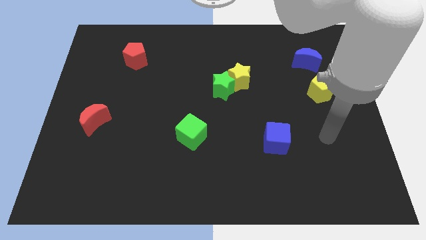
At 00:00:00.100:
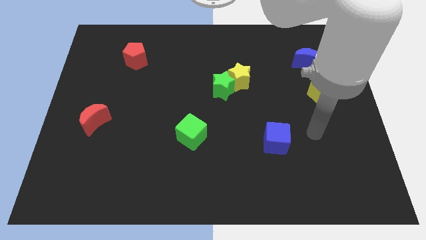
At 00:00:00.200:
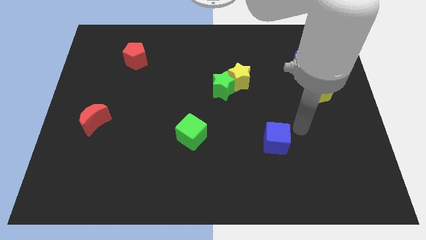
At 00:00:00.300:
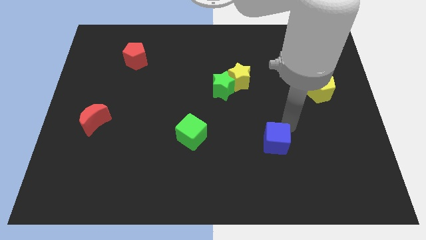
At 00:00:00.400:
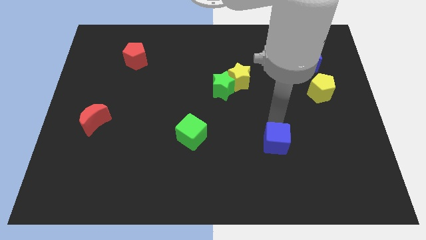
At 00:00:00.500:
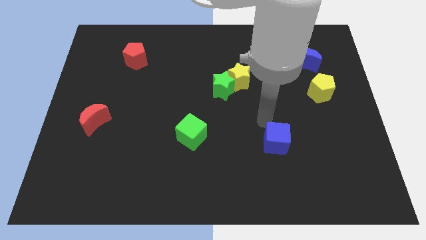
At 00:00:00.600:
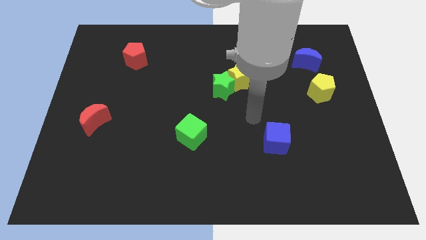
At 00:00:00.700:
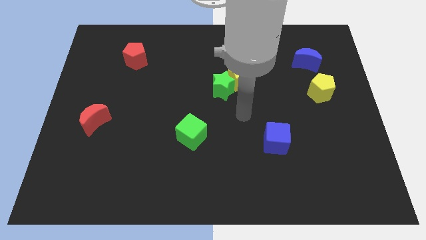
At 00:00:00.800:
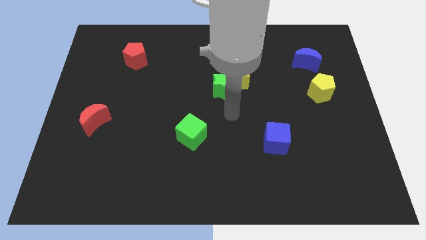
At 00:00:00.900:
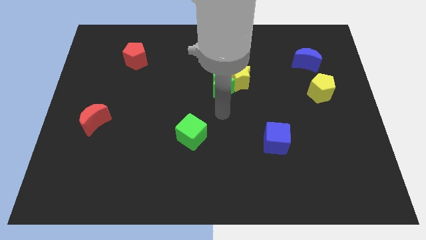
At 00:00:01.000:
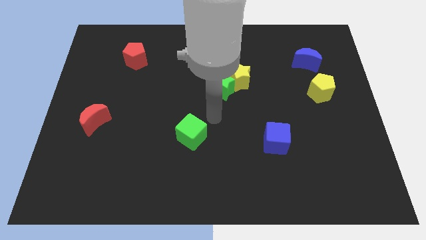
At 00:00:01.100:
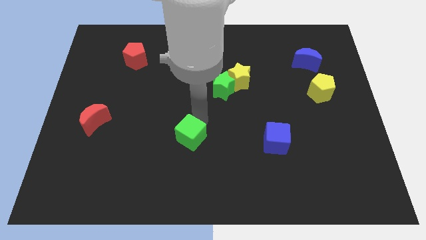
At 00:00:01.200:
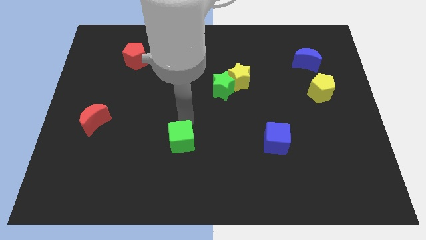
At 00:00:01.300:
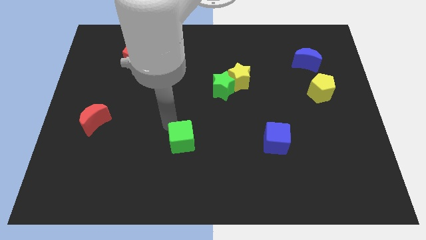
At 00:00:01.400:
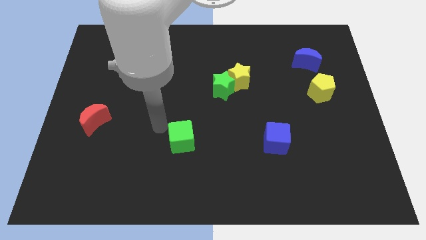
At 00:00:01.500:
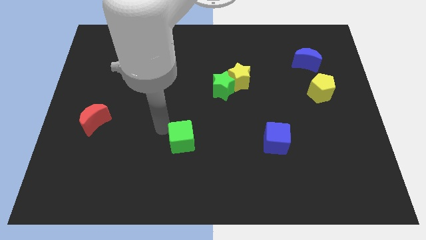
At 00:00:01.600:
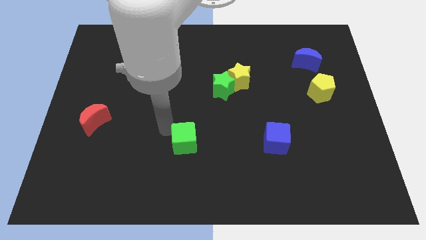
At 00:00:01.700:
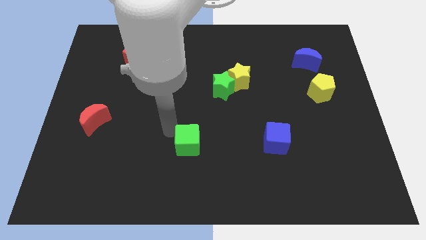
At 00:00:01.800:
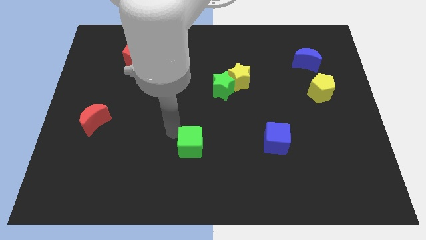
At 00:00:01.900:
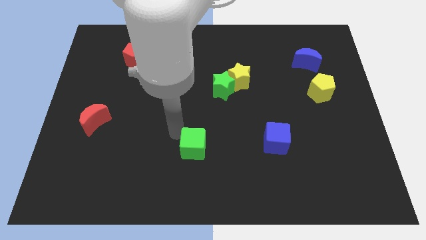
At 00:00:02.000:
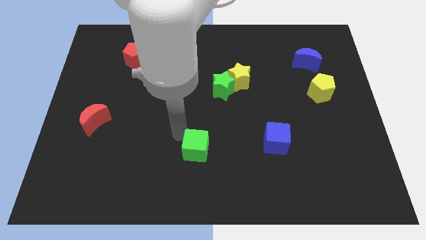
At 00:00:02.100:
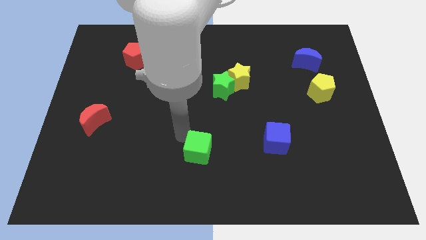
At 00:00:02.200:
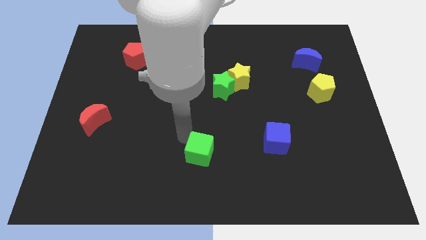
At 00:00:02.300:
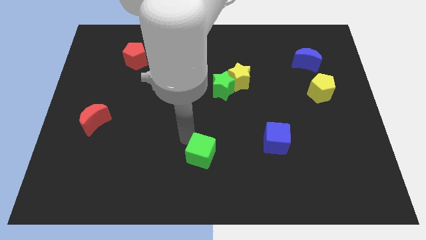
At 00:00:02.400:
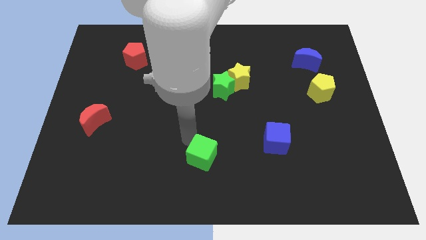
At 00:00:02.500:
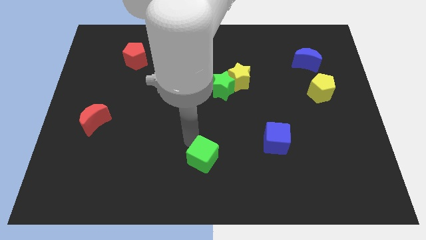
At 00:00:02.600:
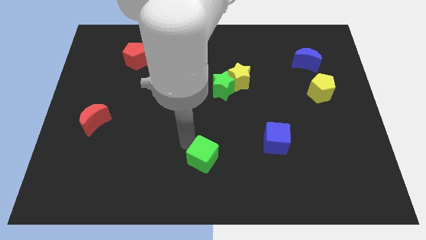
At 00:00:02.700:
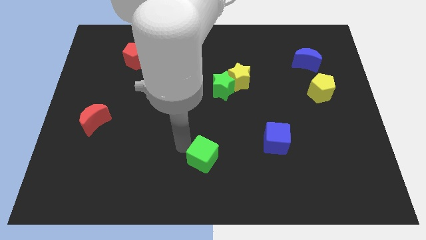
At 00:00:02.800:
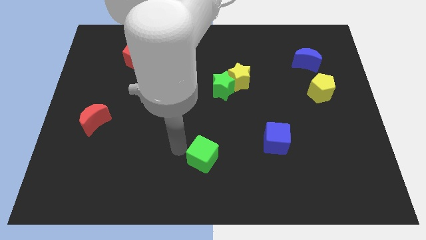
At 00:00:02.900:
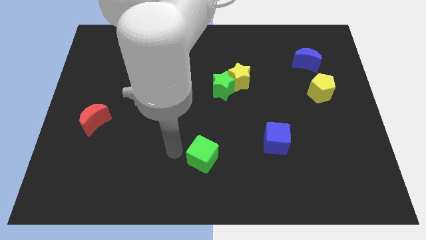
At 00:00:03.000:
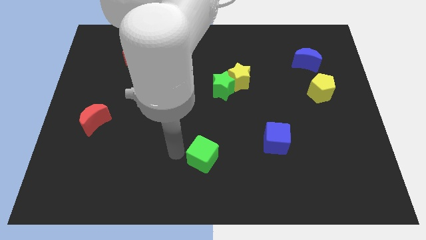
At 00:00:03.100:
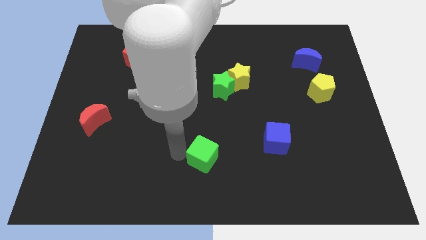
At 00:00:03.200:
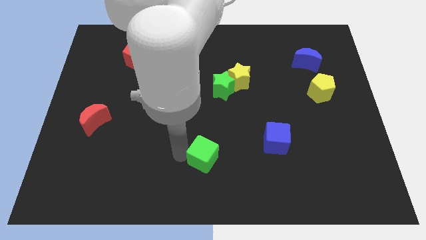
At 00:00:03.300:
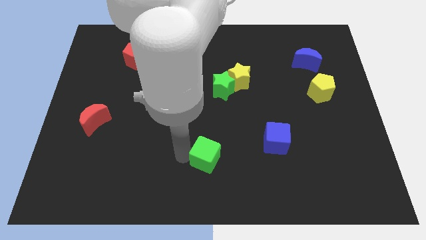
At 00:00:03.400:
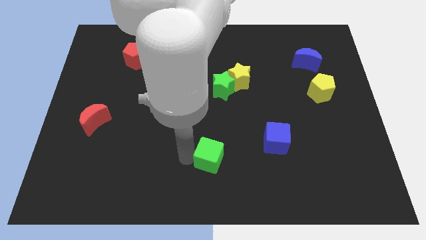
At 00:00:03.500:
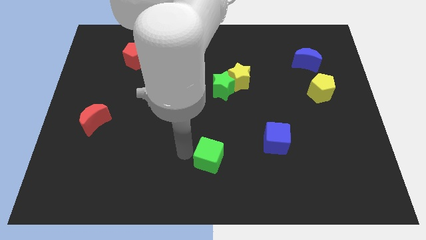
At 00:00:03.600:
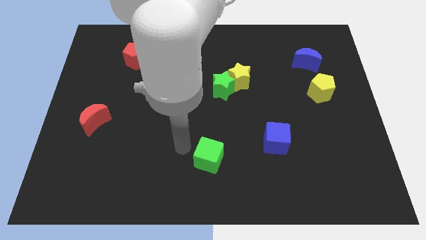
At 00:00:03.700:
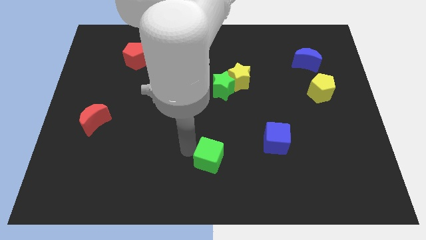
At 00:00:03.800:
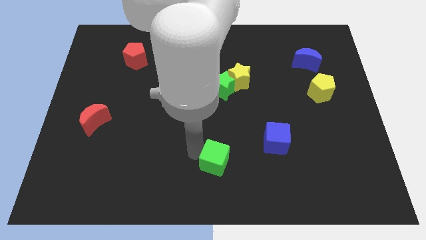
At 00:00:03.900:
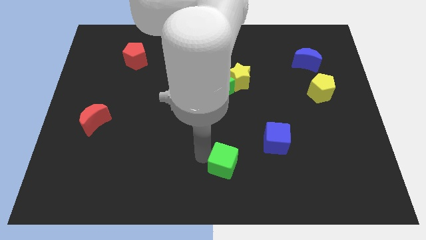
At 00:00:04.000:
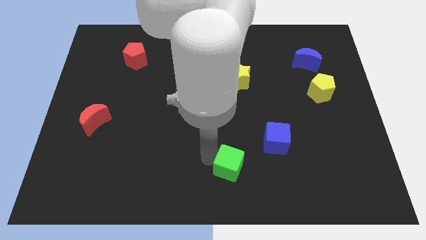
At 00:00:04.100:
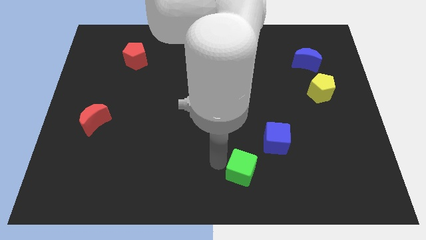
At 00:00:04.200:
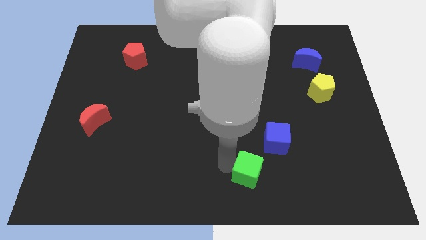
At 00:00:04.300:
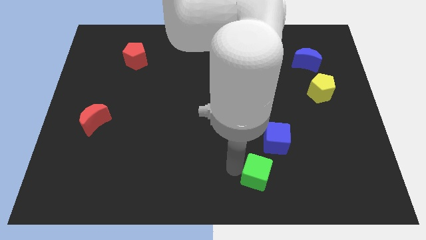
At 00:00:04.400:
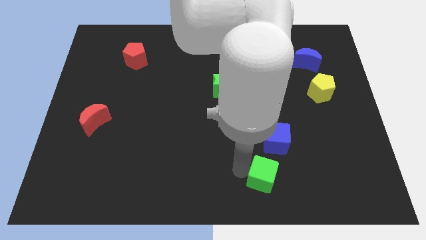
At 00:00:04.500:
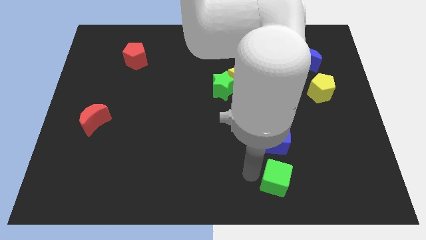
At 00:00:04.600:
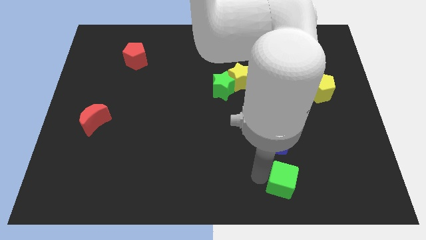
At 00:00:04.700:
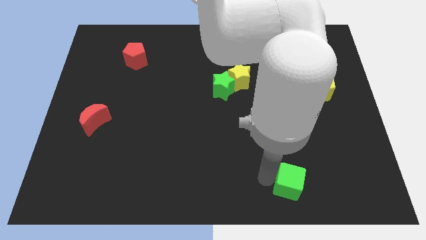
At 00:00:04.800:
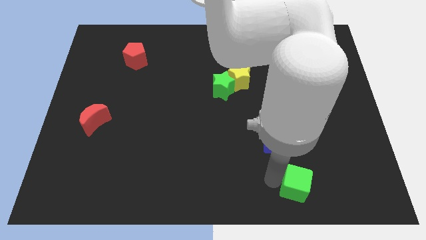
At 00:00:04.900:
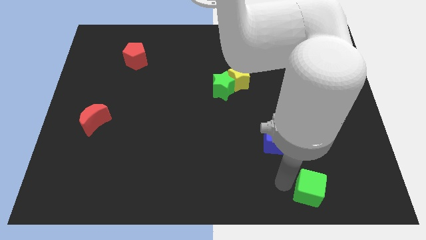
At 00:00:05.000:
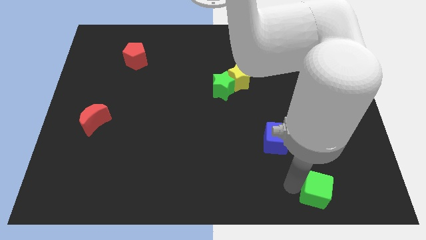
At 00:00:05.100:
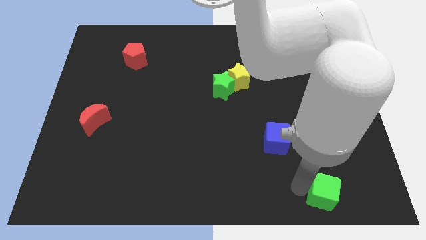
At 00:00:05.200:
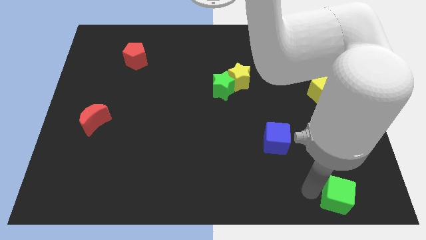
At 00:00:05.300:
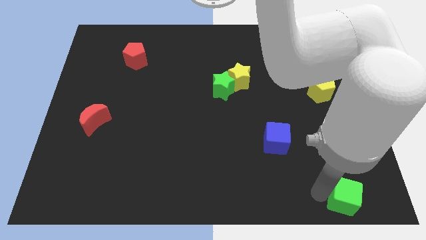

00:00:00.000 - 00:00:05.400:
slide the green cube to the bottom right corner

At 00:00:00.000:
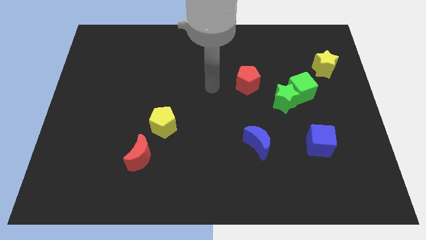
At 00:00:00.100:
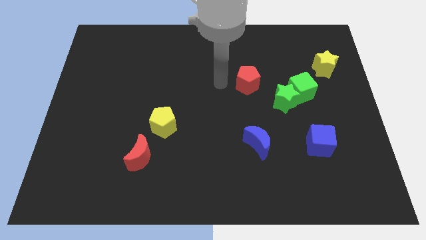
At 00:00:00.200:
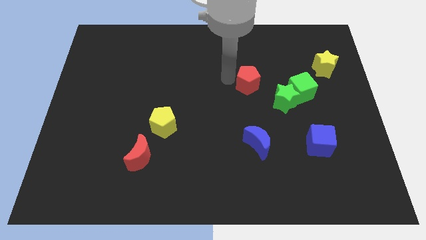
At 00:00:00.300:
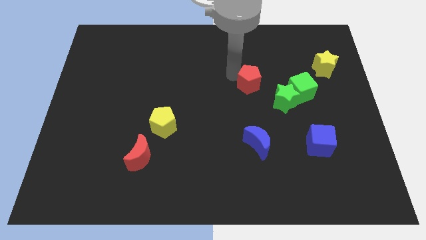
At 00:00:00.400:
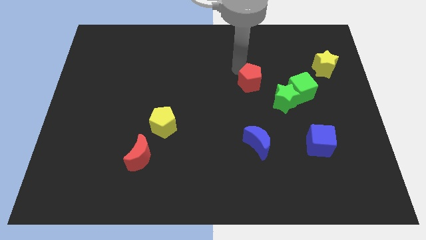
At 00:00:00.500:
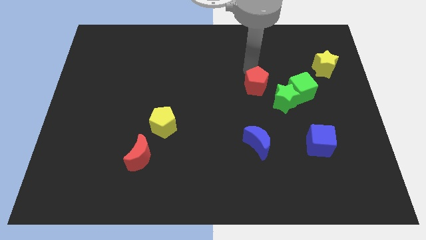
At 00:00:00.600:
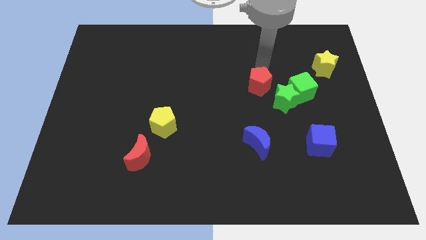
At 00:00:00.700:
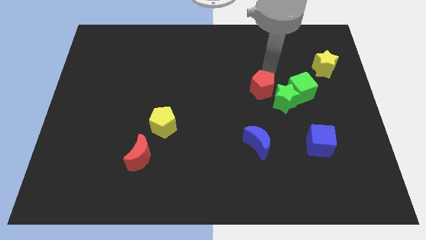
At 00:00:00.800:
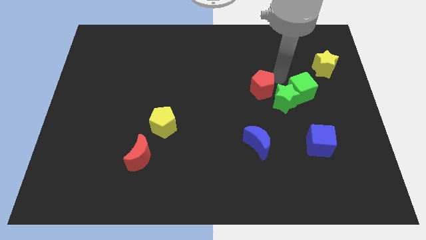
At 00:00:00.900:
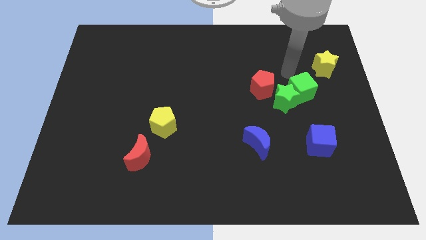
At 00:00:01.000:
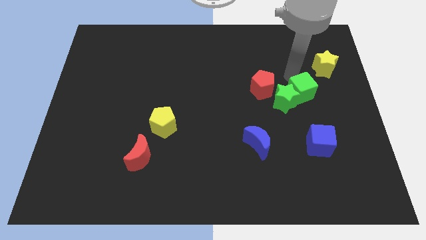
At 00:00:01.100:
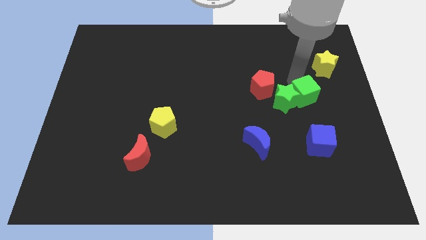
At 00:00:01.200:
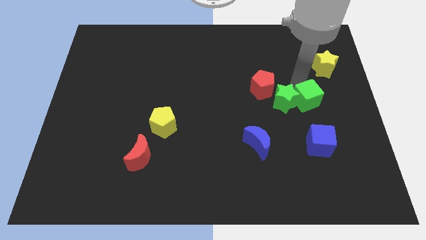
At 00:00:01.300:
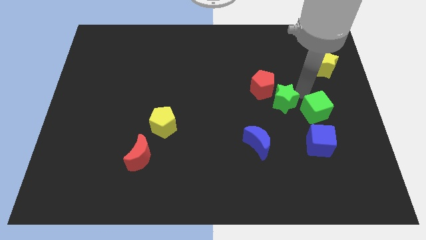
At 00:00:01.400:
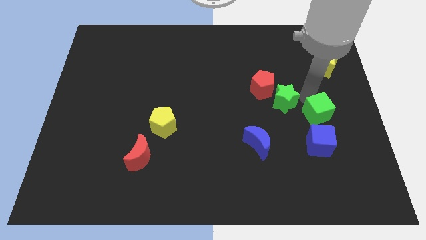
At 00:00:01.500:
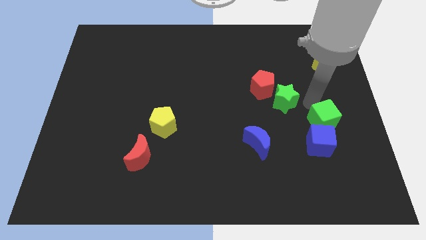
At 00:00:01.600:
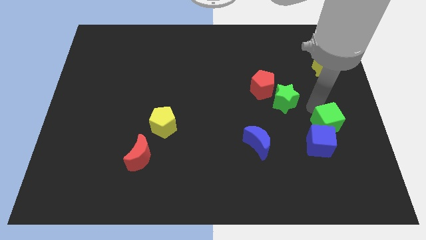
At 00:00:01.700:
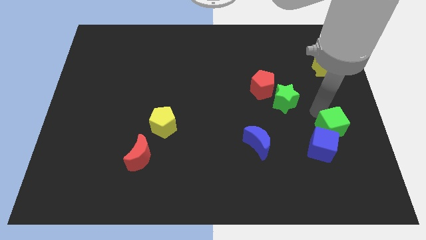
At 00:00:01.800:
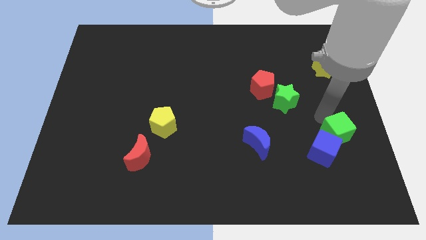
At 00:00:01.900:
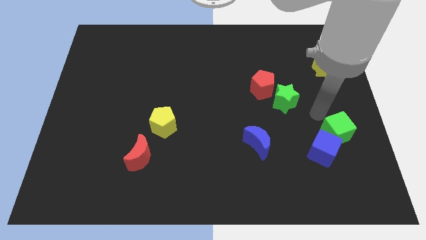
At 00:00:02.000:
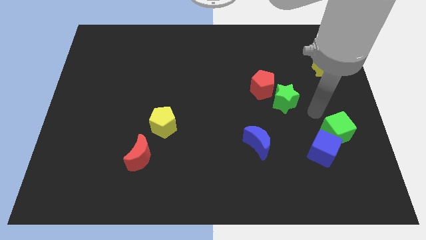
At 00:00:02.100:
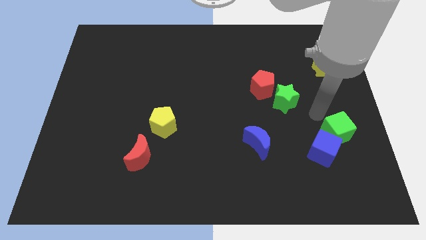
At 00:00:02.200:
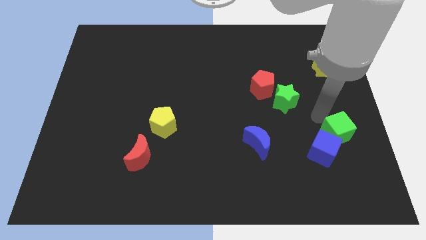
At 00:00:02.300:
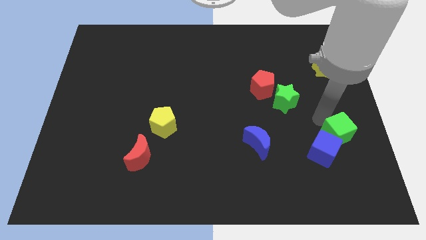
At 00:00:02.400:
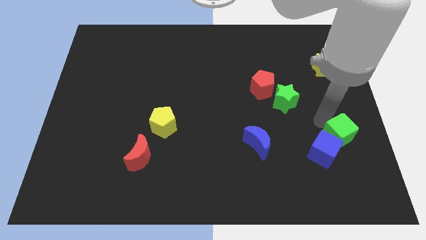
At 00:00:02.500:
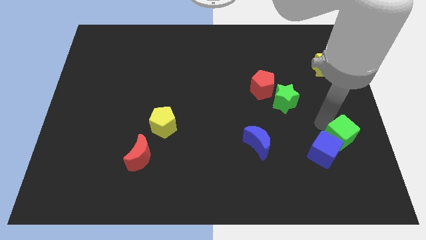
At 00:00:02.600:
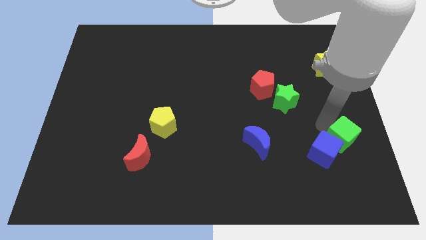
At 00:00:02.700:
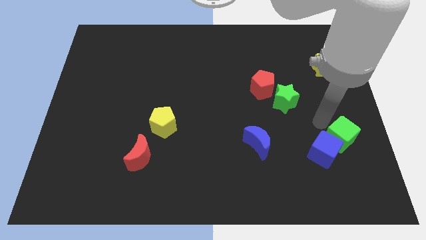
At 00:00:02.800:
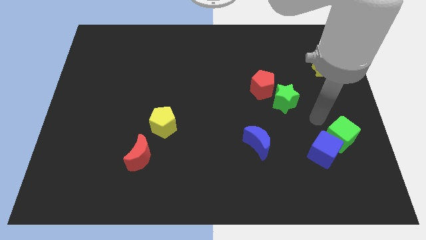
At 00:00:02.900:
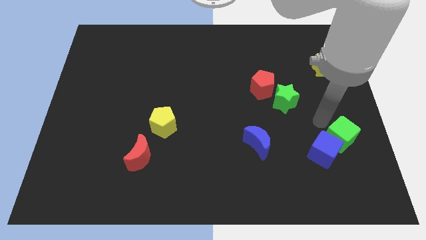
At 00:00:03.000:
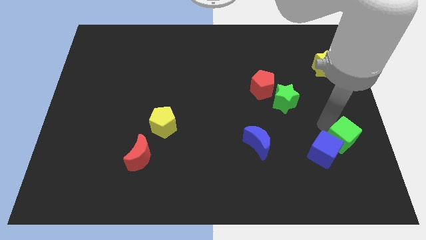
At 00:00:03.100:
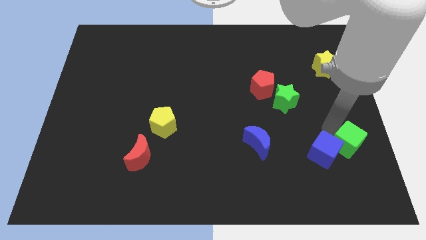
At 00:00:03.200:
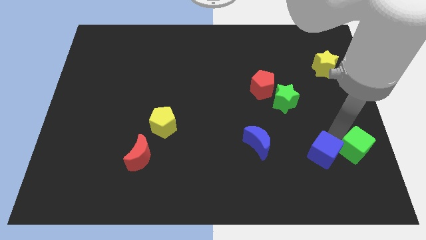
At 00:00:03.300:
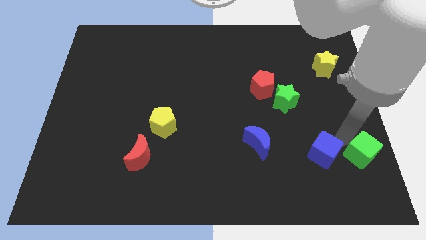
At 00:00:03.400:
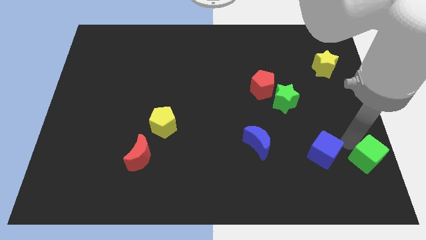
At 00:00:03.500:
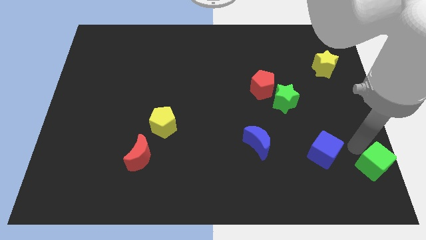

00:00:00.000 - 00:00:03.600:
push the green cube to the bottom right
